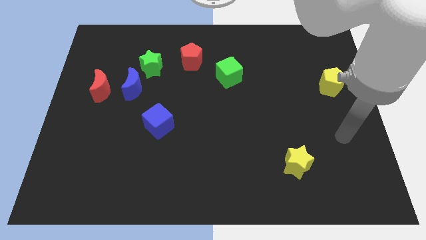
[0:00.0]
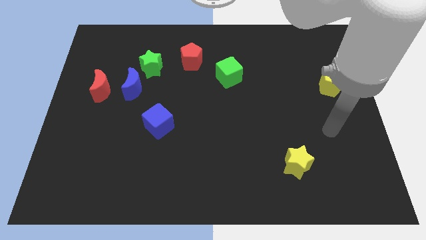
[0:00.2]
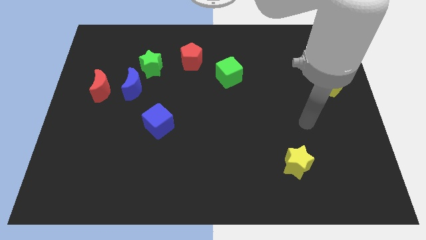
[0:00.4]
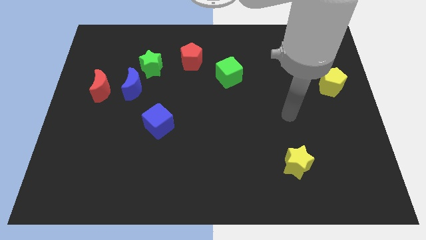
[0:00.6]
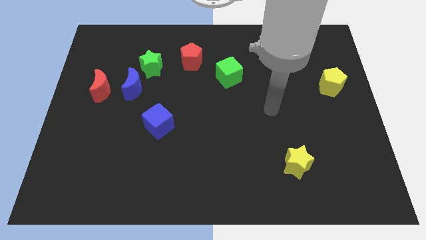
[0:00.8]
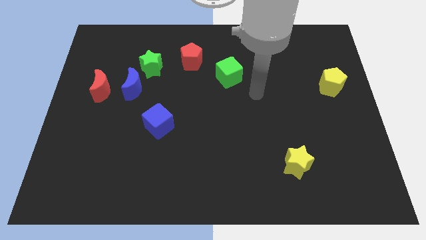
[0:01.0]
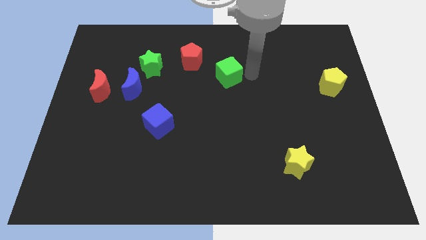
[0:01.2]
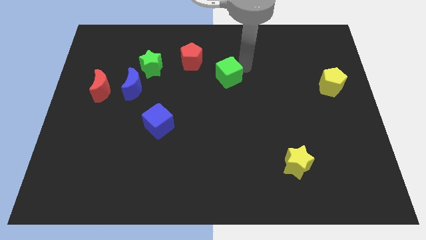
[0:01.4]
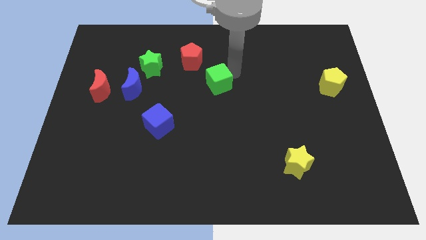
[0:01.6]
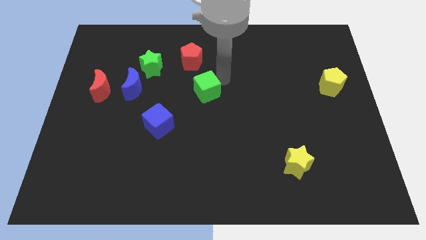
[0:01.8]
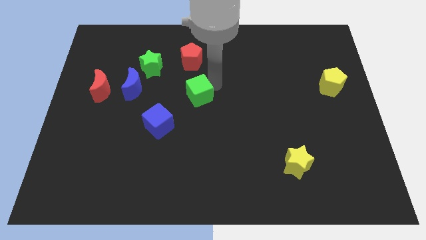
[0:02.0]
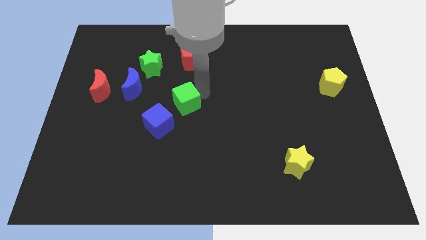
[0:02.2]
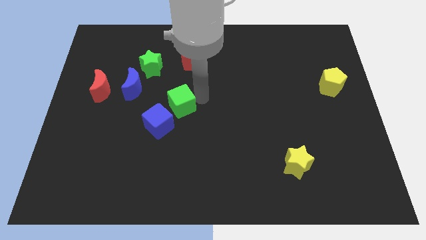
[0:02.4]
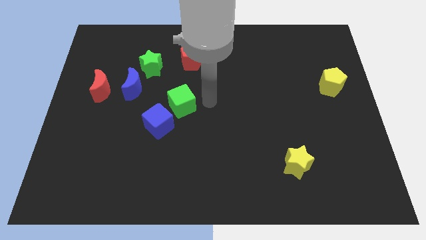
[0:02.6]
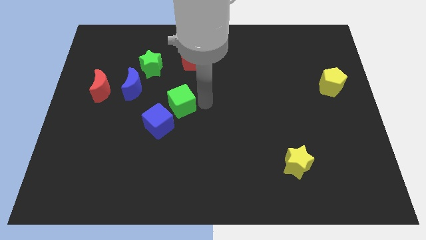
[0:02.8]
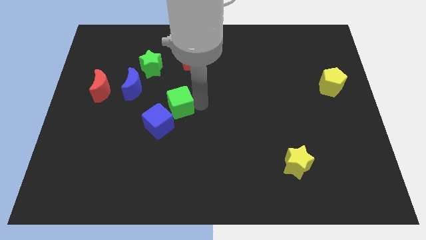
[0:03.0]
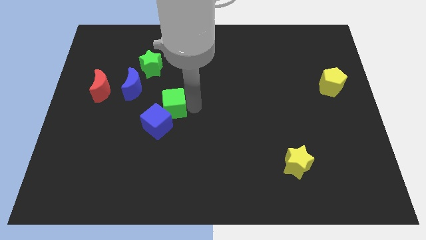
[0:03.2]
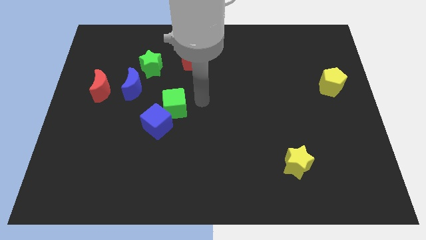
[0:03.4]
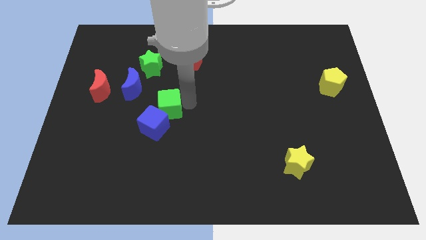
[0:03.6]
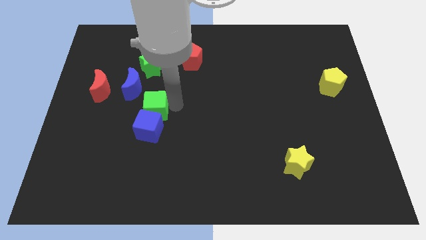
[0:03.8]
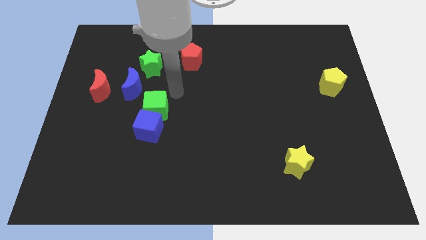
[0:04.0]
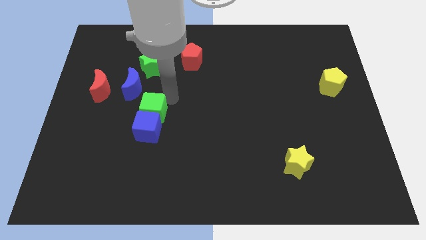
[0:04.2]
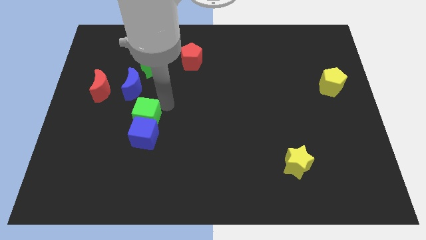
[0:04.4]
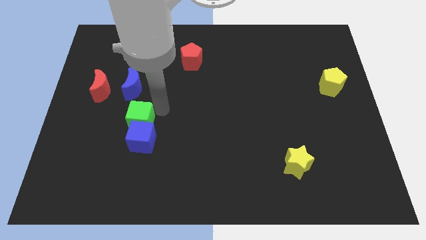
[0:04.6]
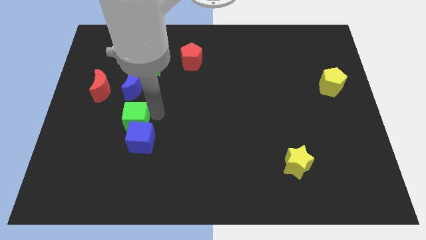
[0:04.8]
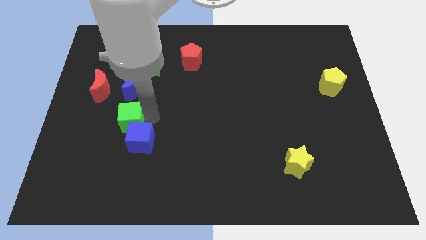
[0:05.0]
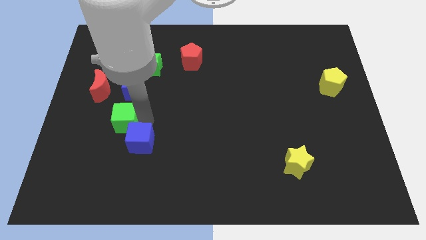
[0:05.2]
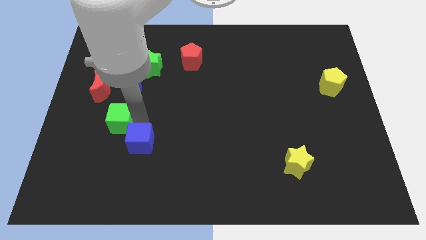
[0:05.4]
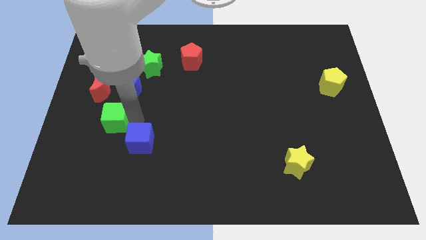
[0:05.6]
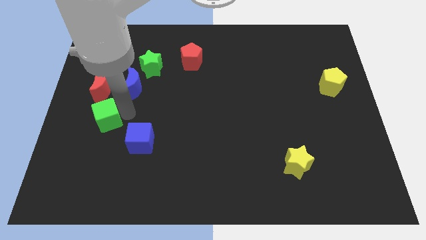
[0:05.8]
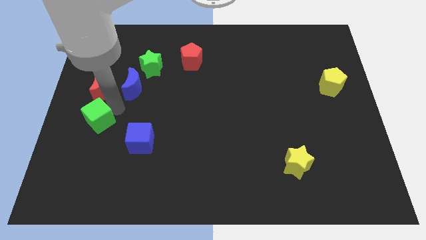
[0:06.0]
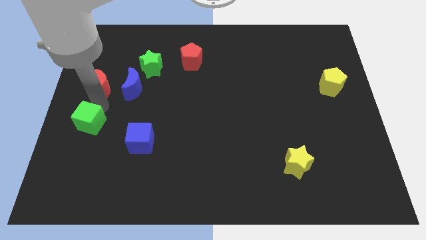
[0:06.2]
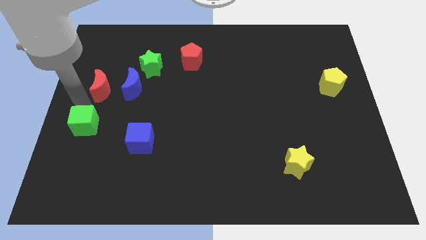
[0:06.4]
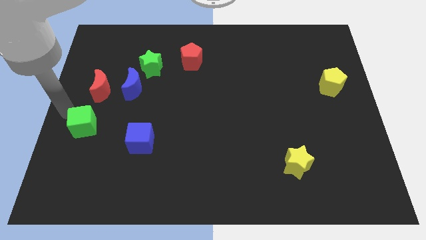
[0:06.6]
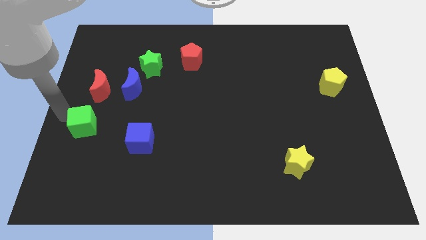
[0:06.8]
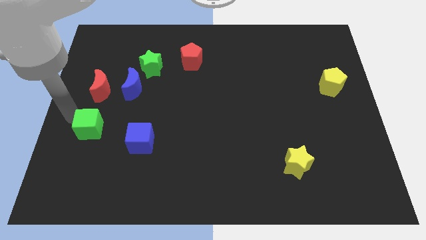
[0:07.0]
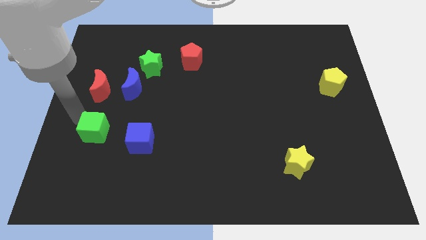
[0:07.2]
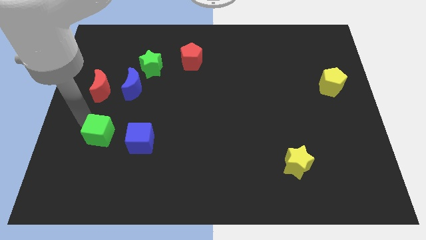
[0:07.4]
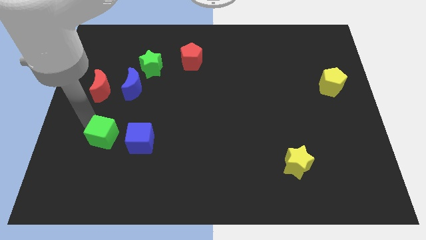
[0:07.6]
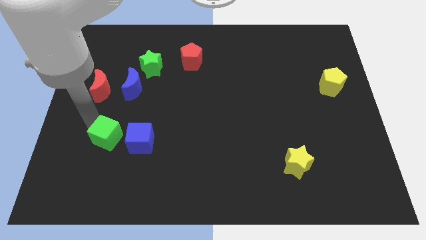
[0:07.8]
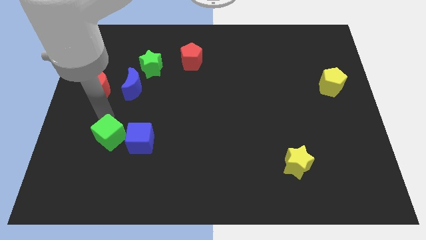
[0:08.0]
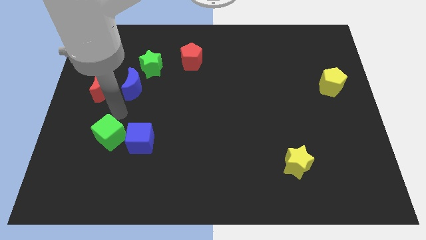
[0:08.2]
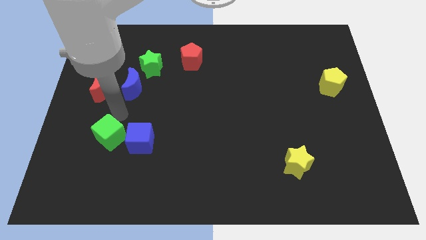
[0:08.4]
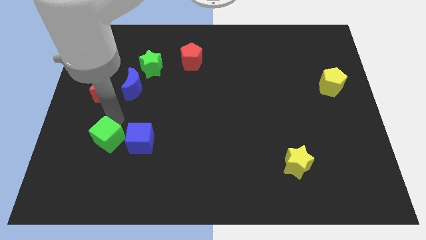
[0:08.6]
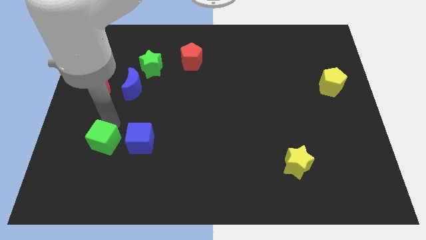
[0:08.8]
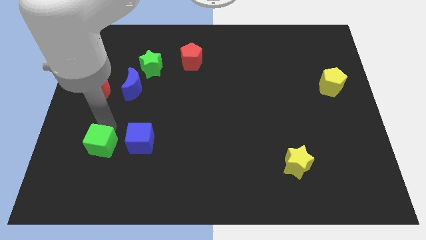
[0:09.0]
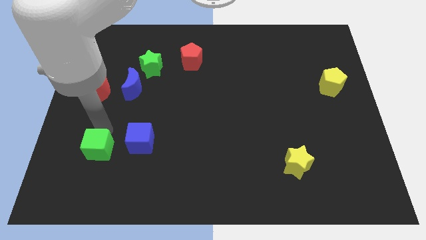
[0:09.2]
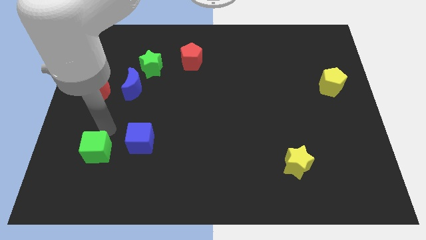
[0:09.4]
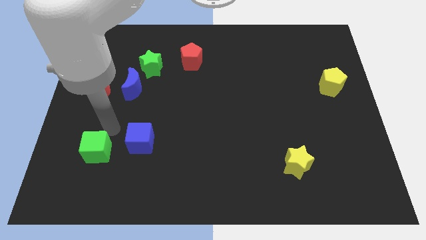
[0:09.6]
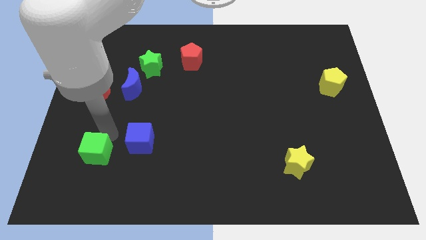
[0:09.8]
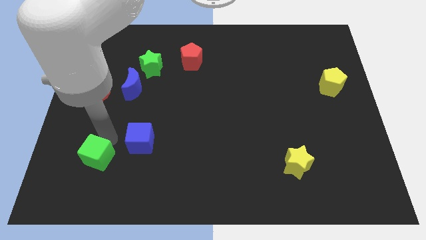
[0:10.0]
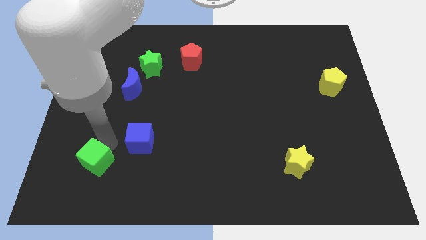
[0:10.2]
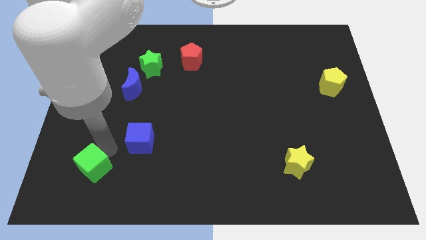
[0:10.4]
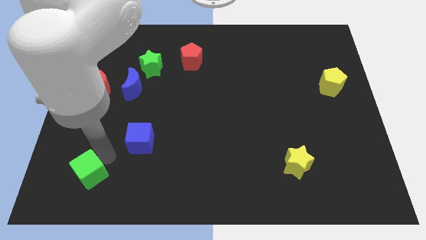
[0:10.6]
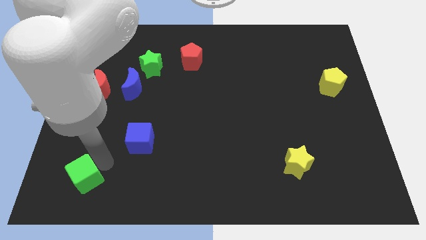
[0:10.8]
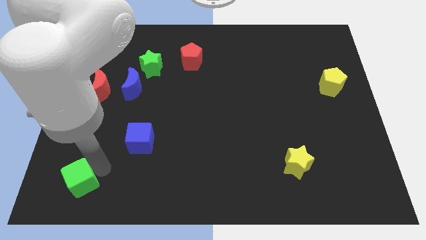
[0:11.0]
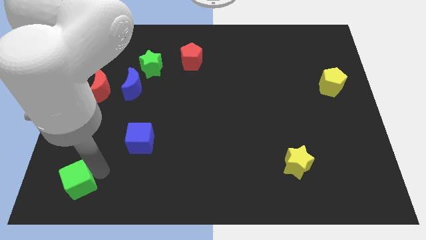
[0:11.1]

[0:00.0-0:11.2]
slide the green cube to the lower left corner

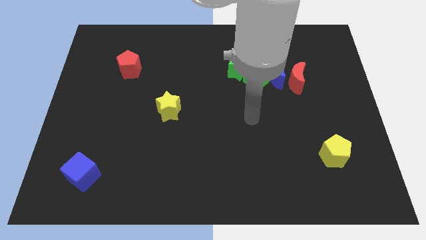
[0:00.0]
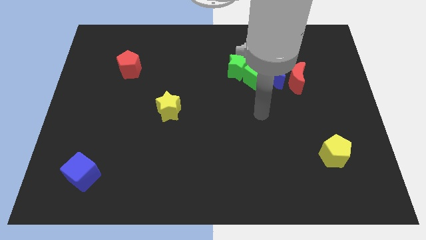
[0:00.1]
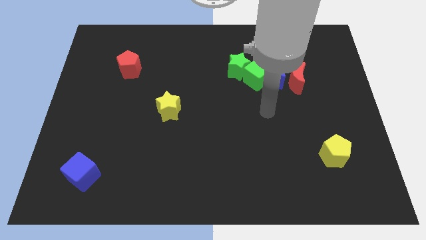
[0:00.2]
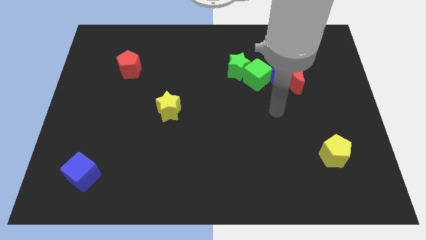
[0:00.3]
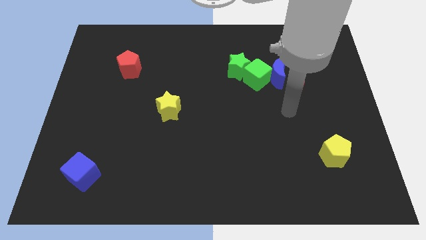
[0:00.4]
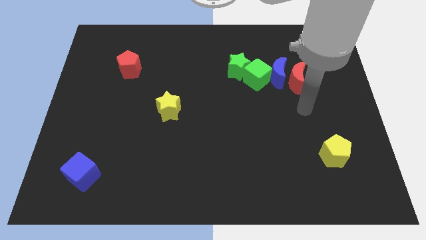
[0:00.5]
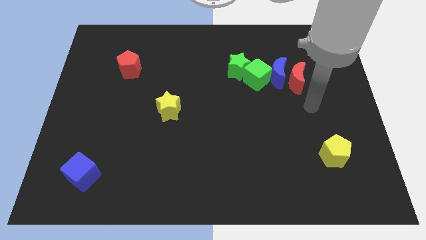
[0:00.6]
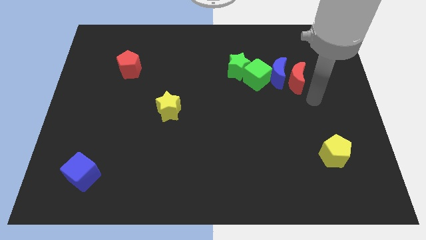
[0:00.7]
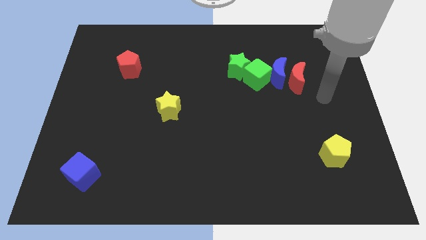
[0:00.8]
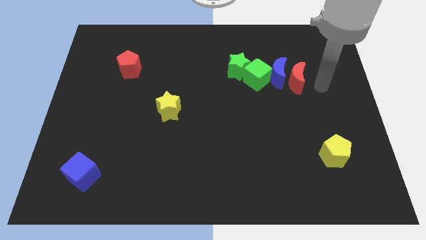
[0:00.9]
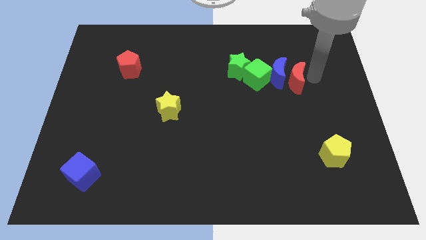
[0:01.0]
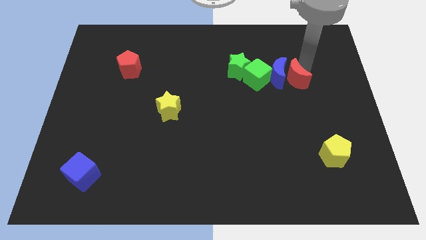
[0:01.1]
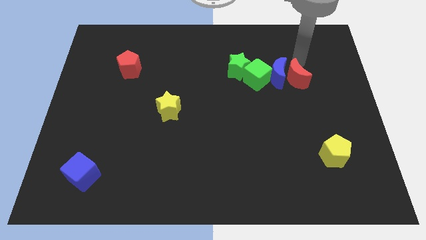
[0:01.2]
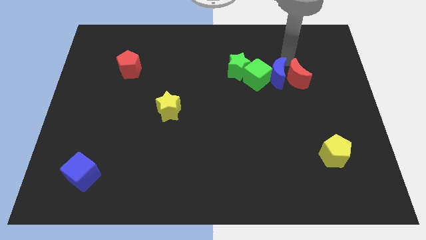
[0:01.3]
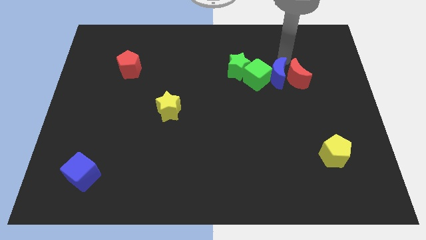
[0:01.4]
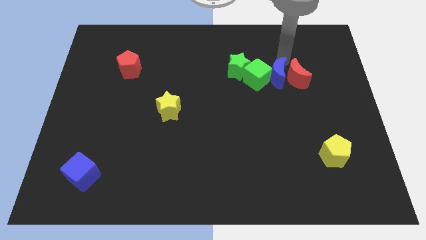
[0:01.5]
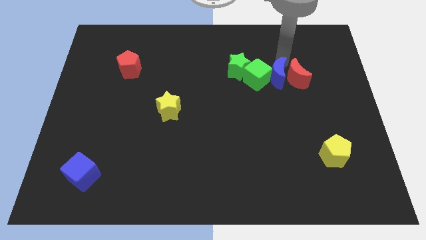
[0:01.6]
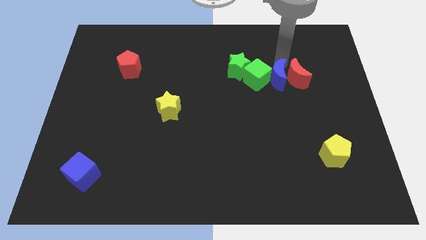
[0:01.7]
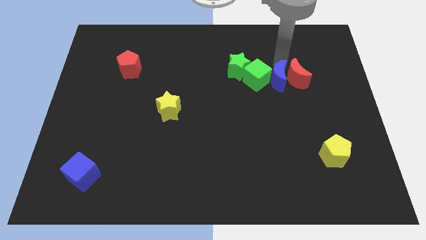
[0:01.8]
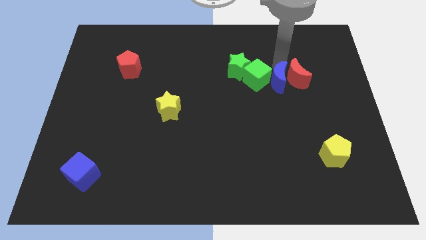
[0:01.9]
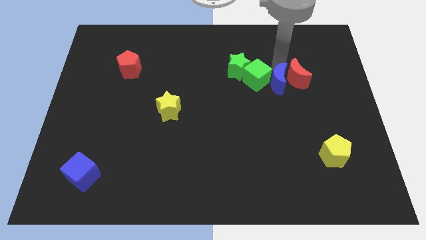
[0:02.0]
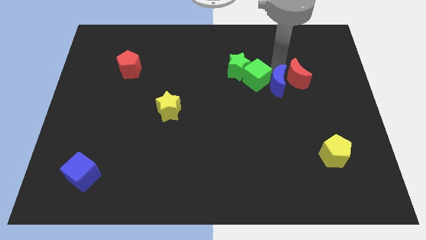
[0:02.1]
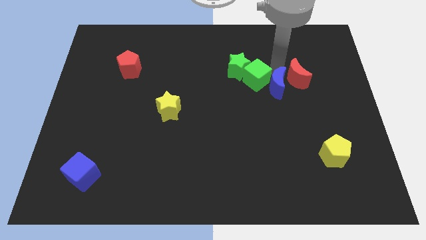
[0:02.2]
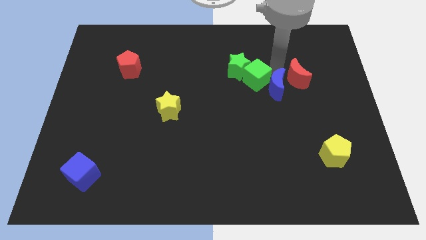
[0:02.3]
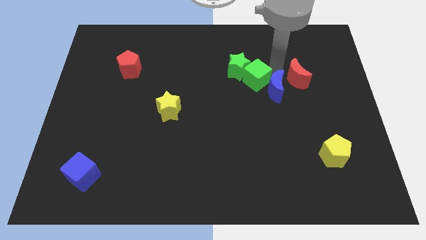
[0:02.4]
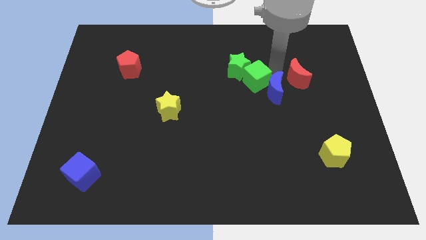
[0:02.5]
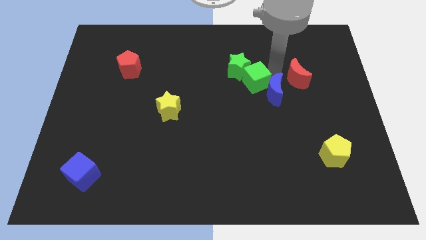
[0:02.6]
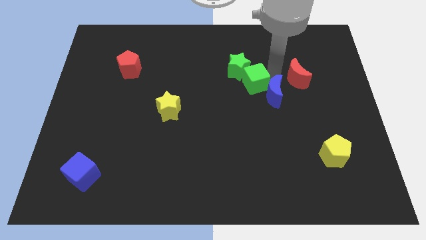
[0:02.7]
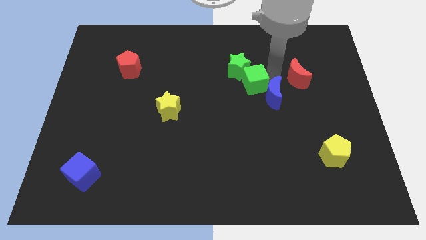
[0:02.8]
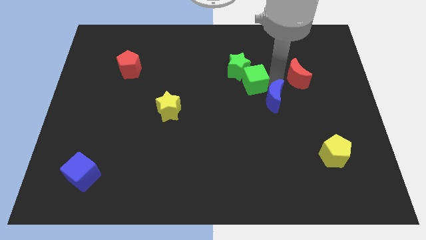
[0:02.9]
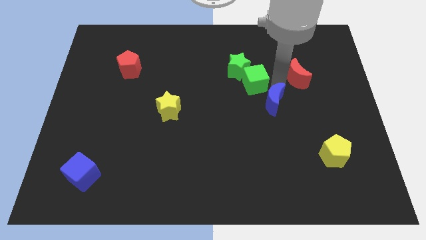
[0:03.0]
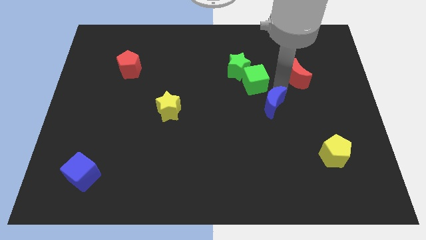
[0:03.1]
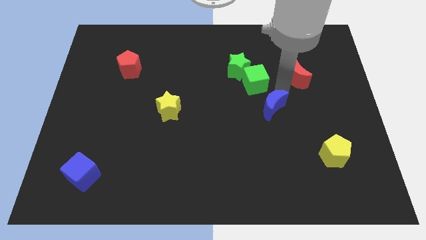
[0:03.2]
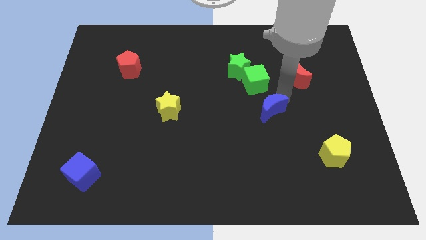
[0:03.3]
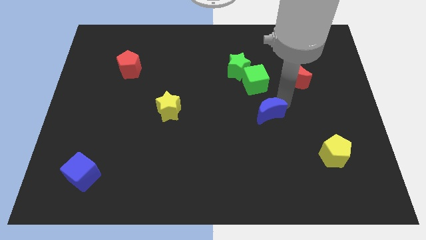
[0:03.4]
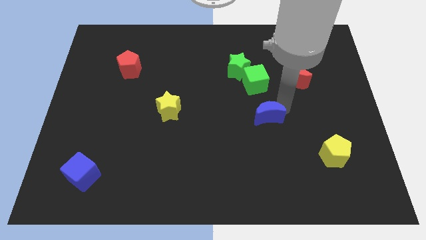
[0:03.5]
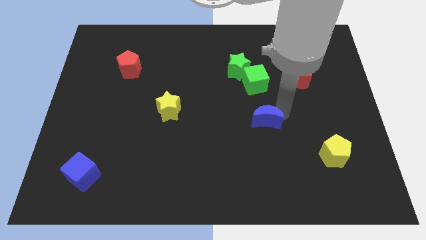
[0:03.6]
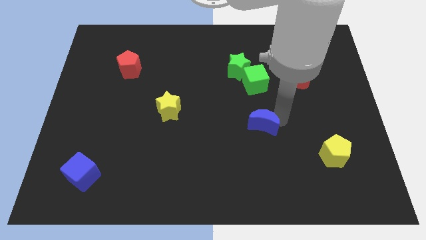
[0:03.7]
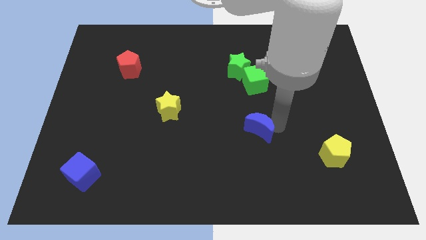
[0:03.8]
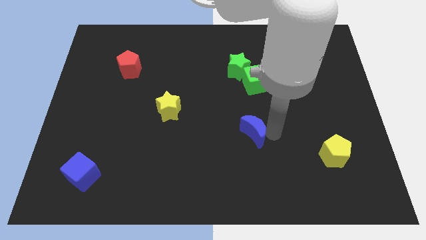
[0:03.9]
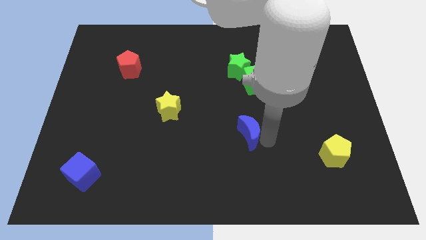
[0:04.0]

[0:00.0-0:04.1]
move the blue moon to the middle of the board
